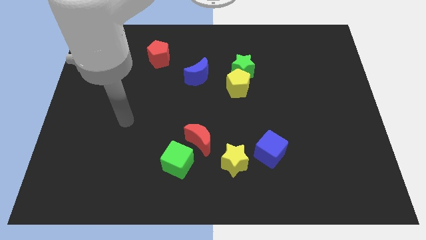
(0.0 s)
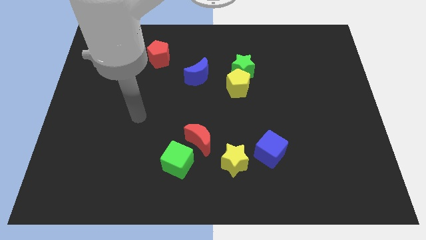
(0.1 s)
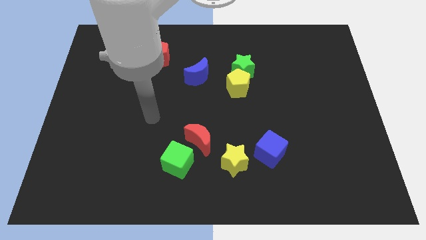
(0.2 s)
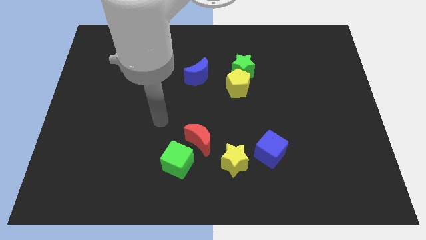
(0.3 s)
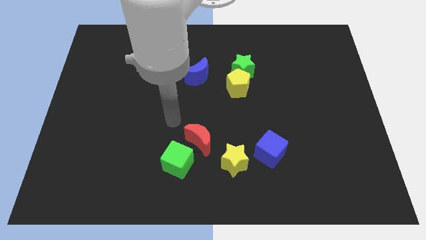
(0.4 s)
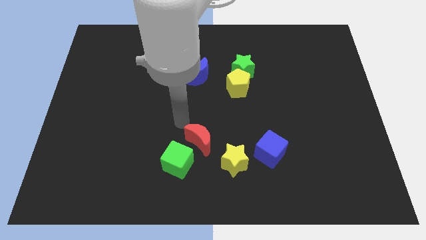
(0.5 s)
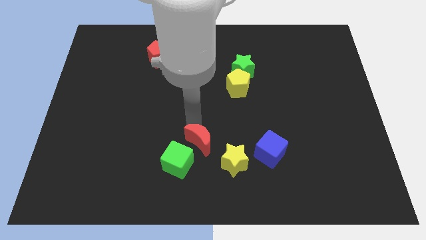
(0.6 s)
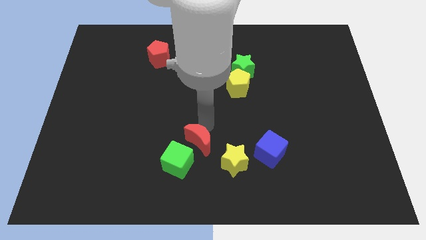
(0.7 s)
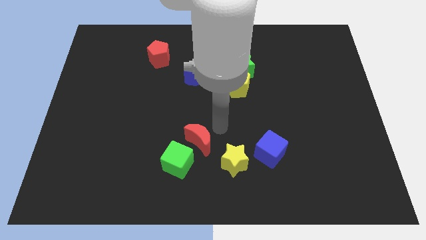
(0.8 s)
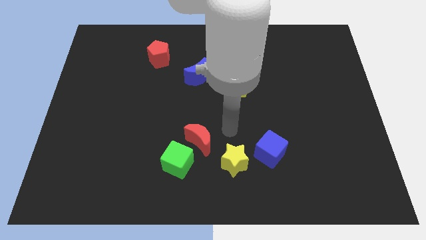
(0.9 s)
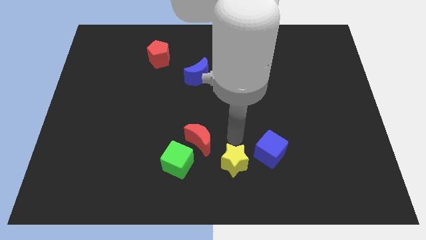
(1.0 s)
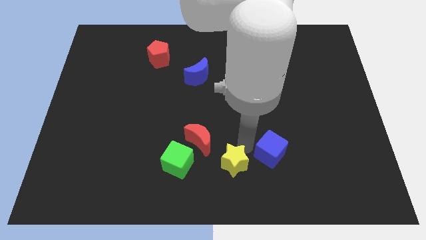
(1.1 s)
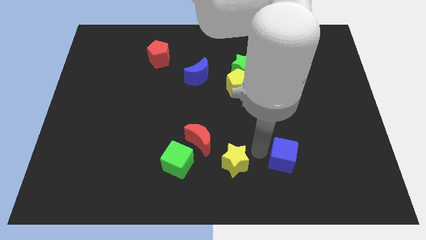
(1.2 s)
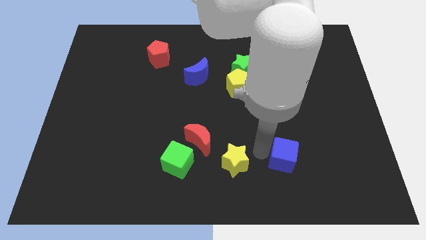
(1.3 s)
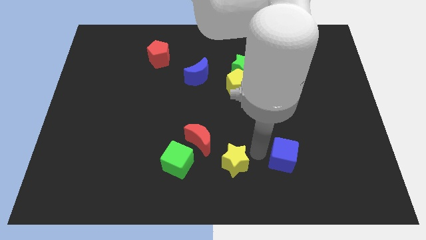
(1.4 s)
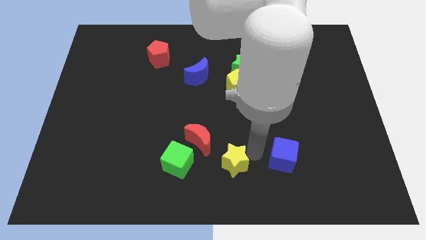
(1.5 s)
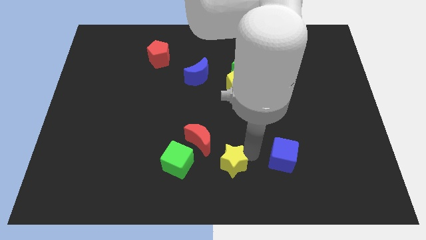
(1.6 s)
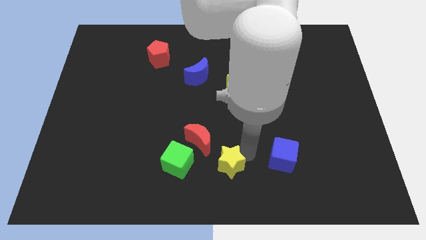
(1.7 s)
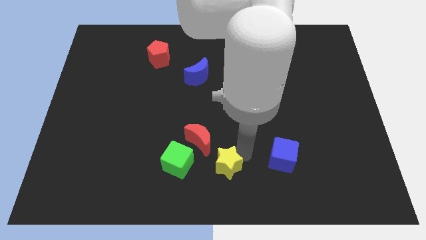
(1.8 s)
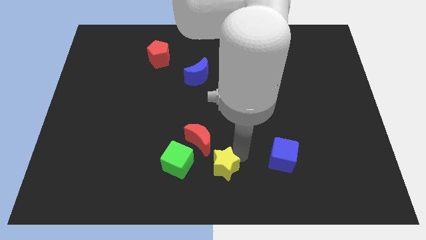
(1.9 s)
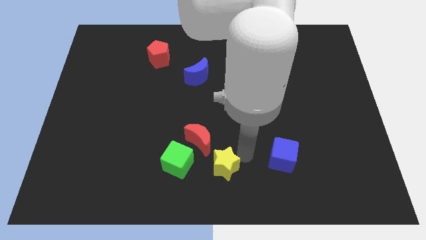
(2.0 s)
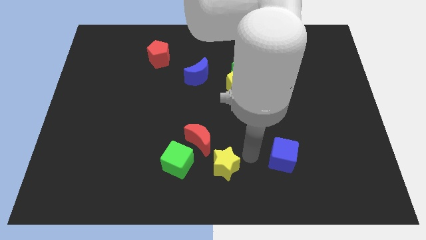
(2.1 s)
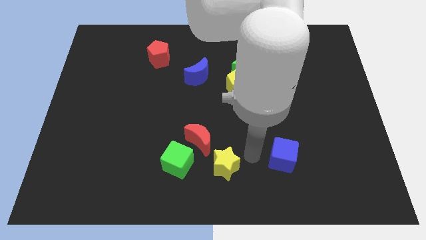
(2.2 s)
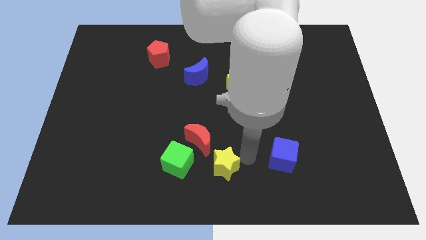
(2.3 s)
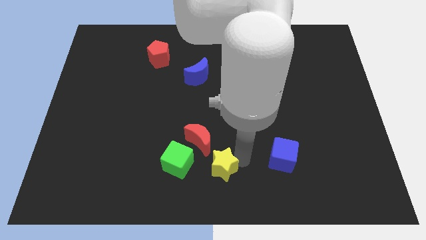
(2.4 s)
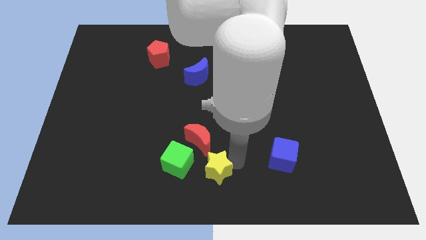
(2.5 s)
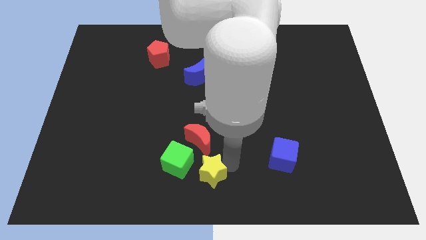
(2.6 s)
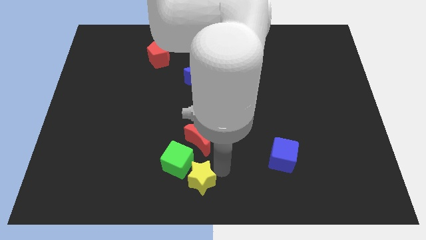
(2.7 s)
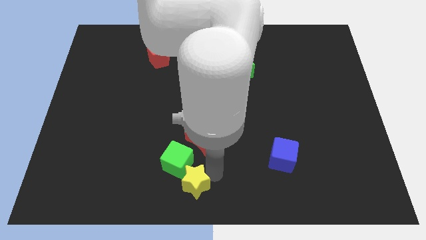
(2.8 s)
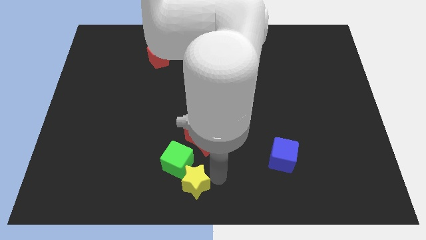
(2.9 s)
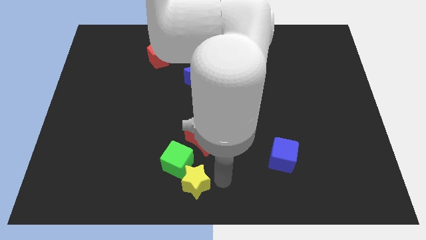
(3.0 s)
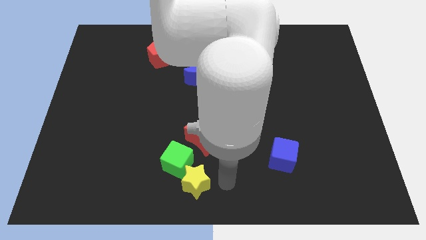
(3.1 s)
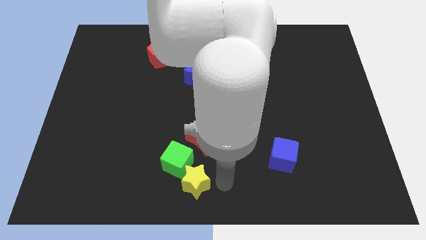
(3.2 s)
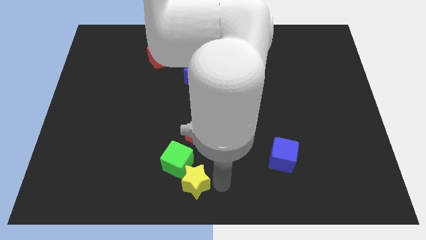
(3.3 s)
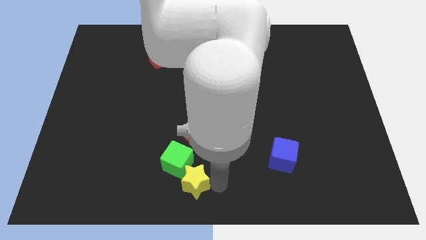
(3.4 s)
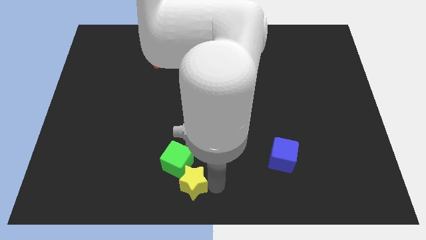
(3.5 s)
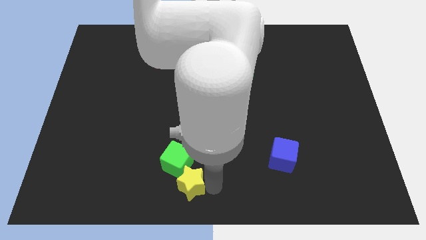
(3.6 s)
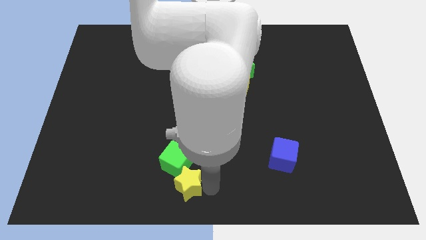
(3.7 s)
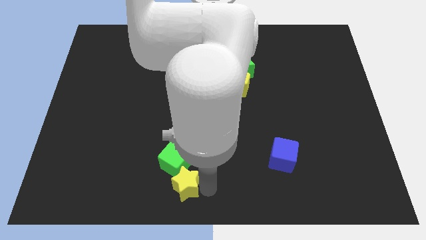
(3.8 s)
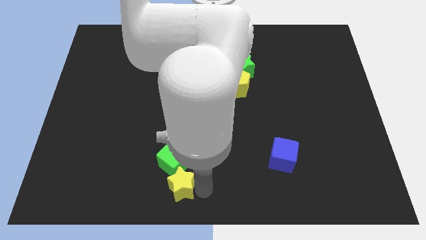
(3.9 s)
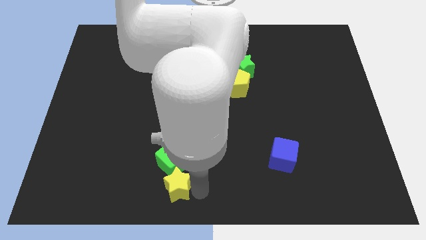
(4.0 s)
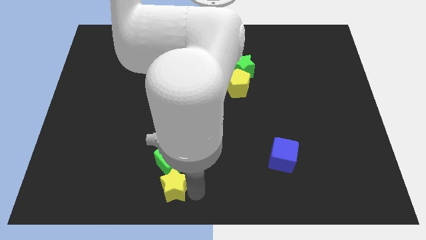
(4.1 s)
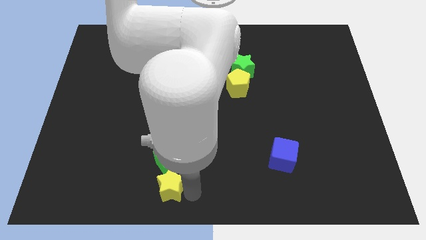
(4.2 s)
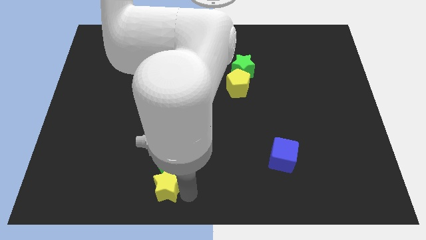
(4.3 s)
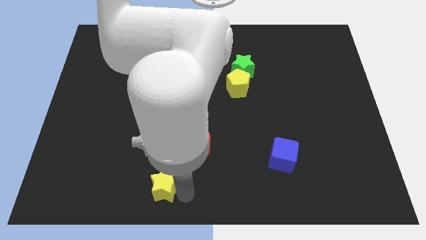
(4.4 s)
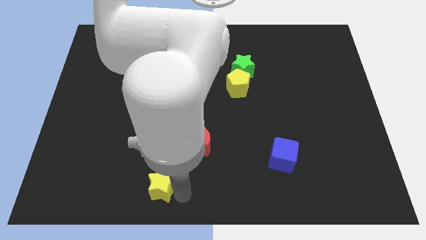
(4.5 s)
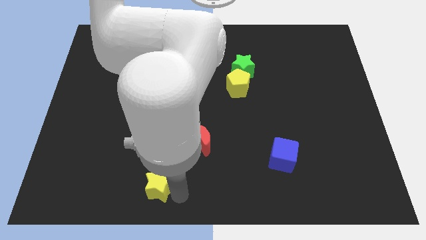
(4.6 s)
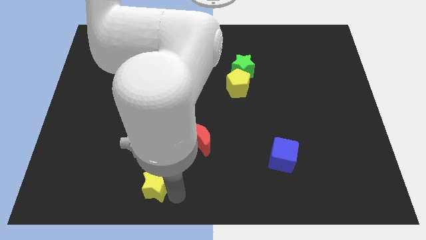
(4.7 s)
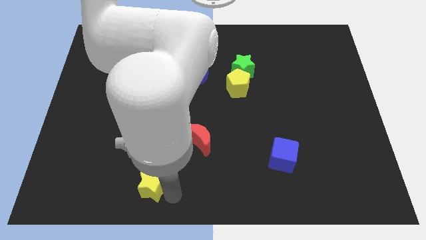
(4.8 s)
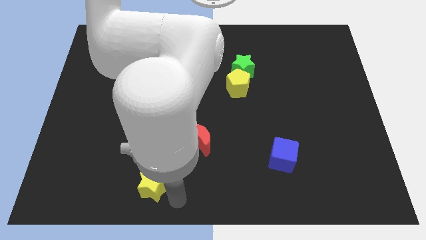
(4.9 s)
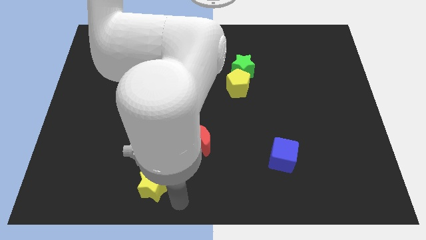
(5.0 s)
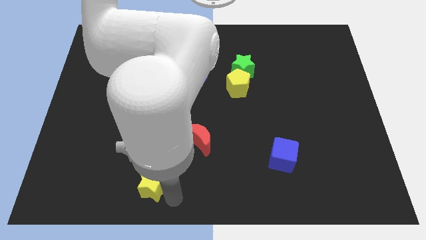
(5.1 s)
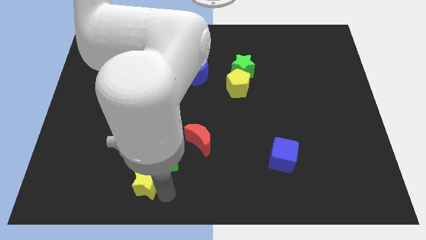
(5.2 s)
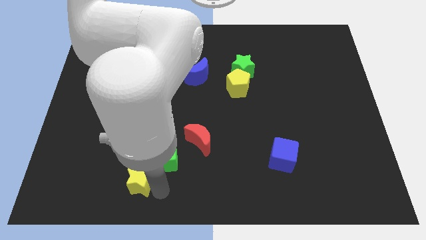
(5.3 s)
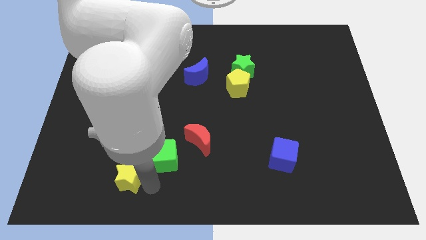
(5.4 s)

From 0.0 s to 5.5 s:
push the yellow star to the left

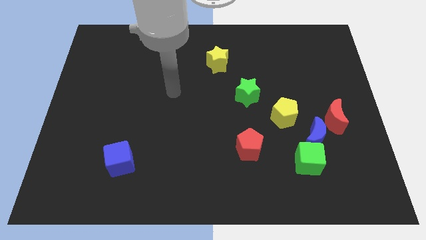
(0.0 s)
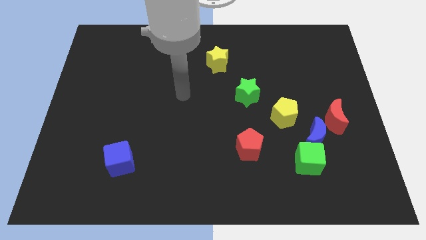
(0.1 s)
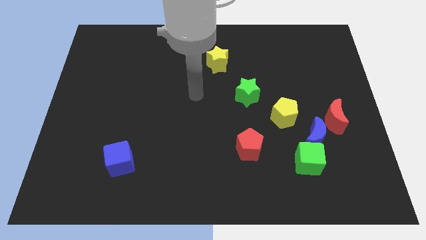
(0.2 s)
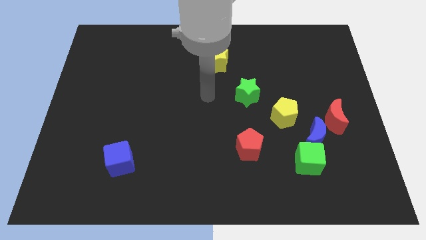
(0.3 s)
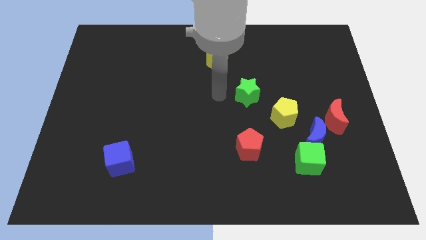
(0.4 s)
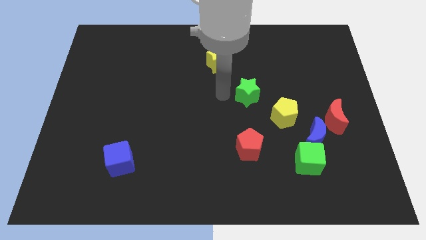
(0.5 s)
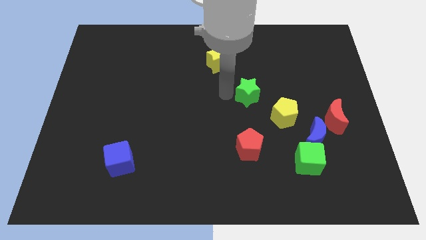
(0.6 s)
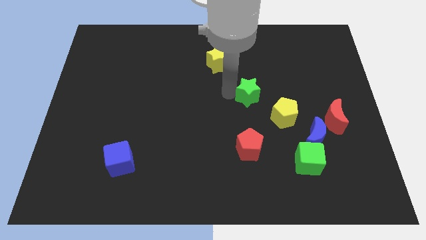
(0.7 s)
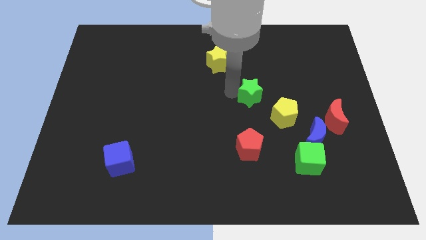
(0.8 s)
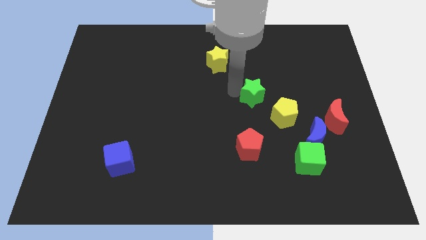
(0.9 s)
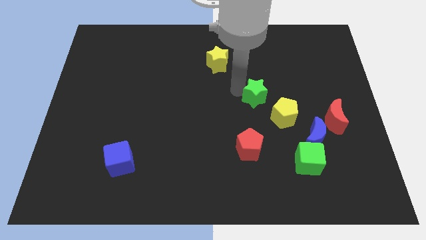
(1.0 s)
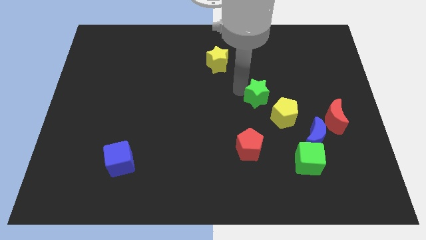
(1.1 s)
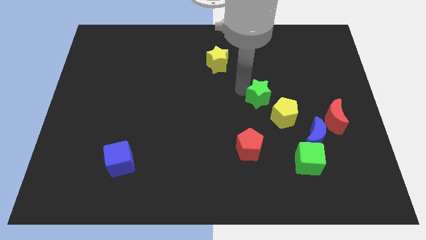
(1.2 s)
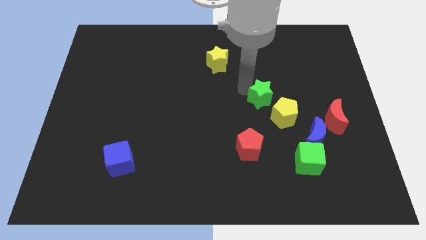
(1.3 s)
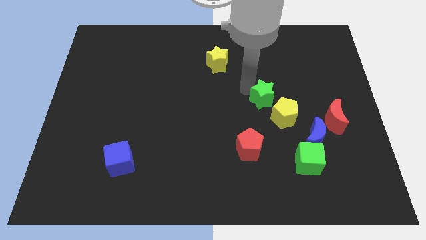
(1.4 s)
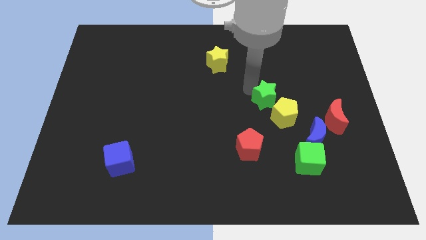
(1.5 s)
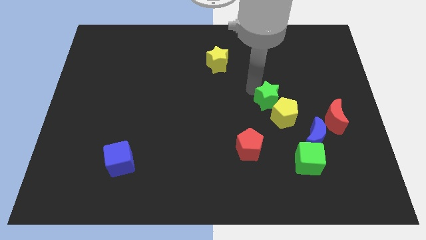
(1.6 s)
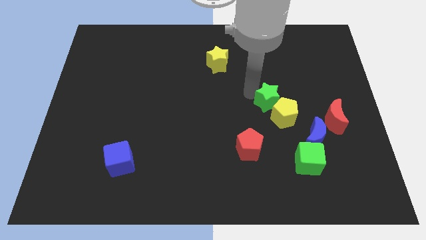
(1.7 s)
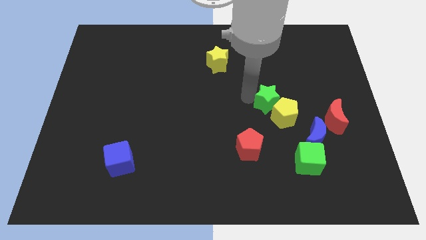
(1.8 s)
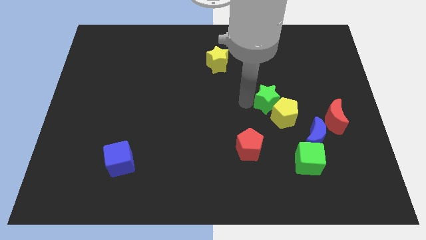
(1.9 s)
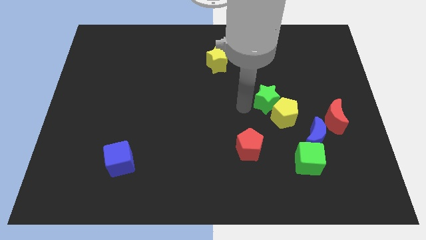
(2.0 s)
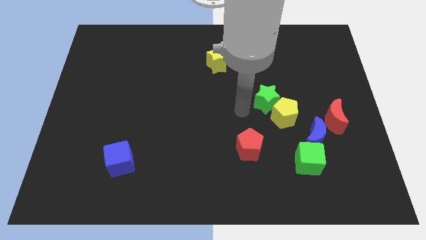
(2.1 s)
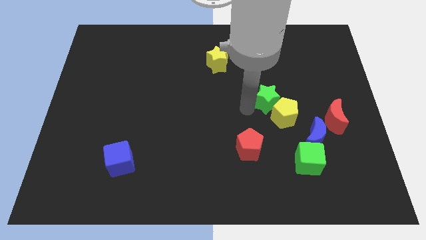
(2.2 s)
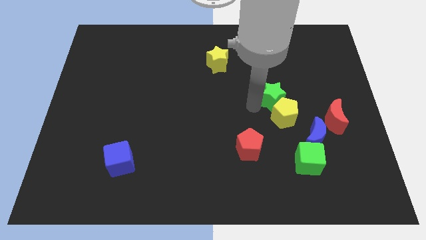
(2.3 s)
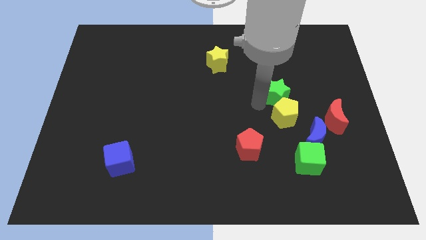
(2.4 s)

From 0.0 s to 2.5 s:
slide the green star to the right a little
